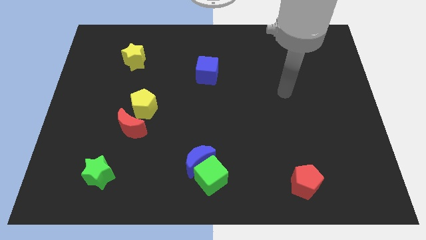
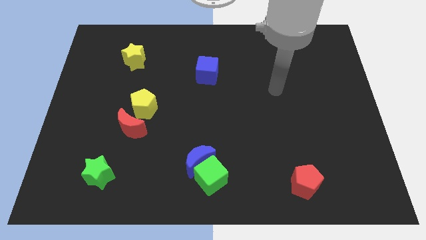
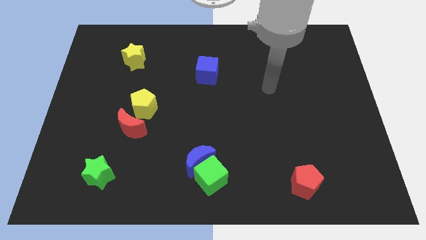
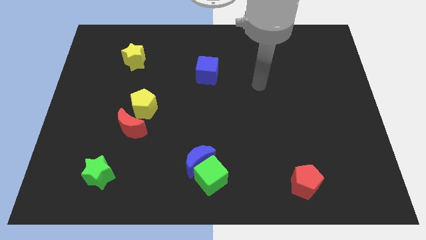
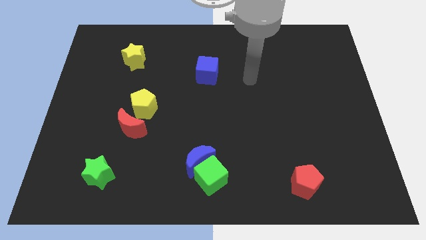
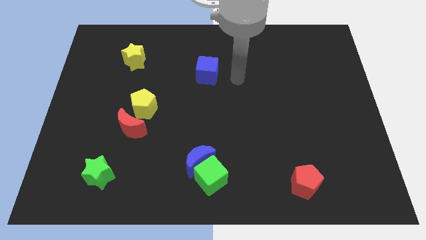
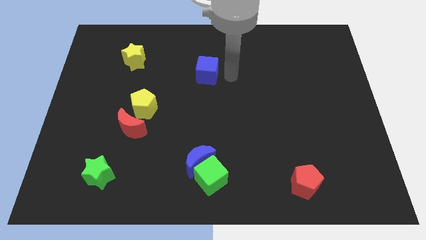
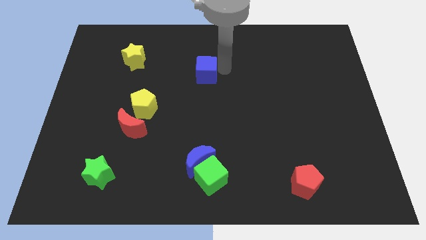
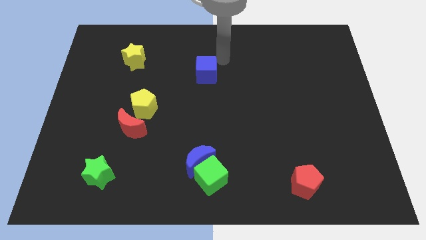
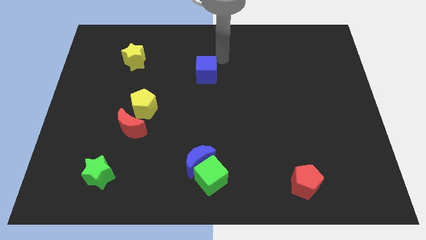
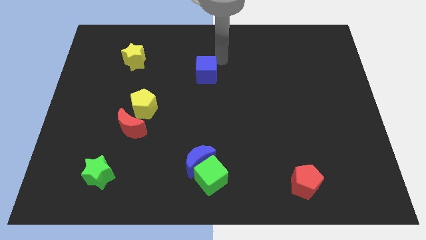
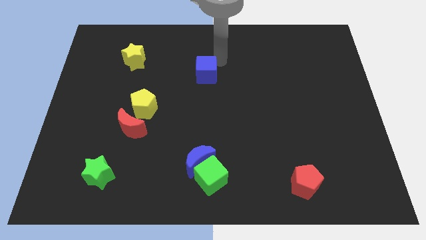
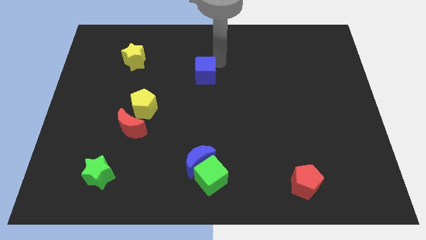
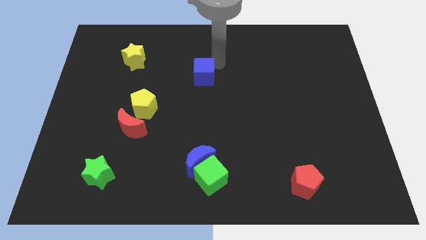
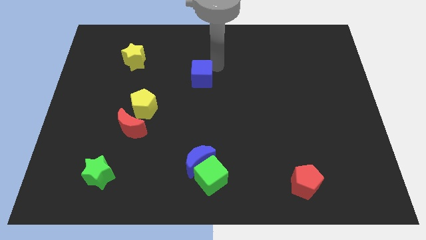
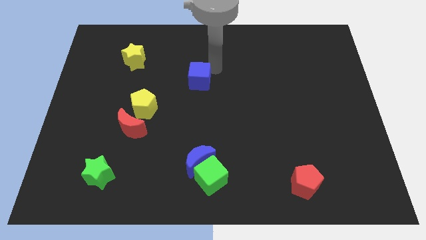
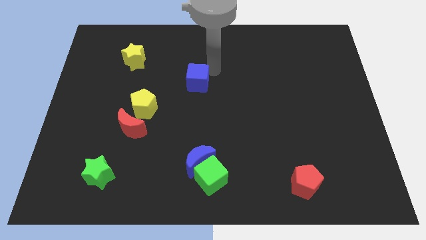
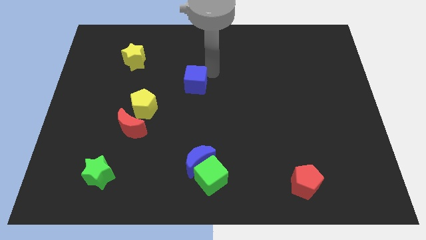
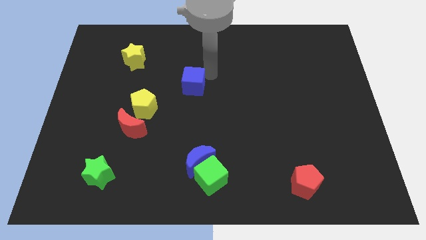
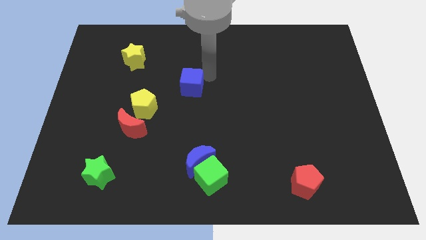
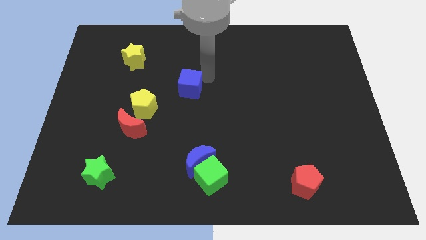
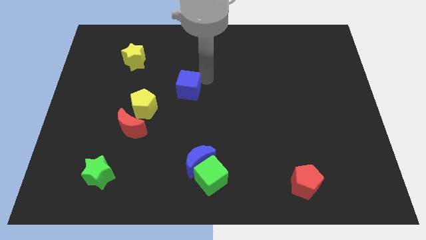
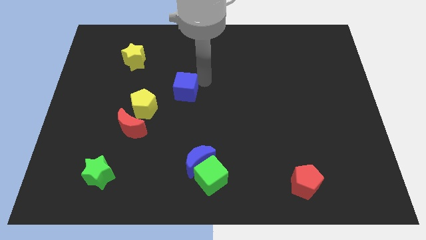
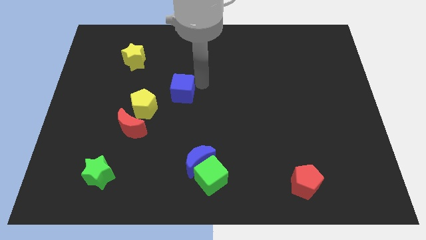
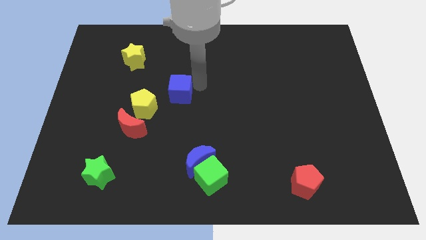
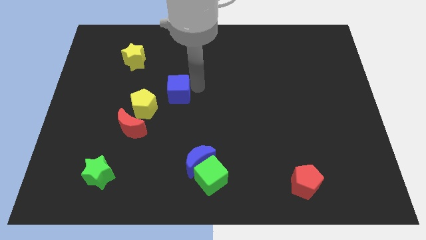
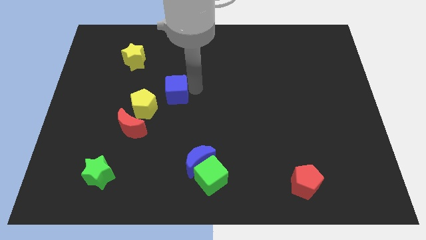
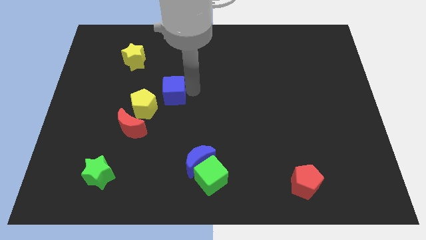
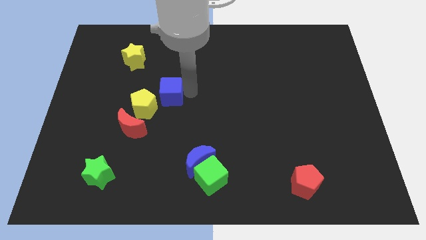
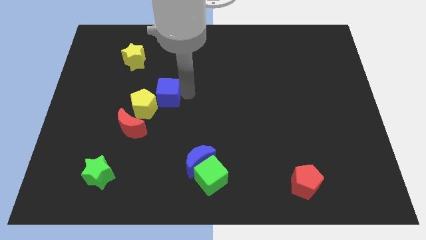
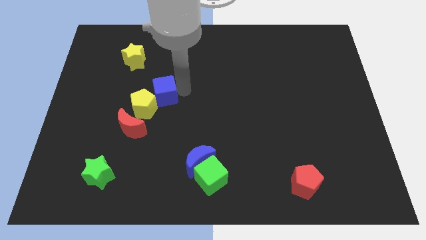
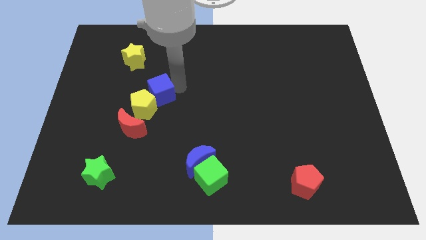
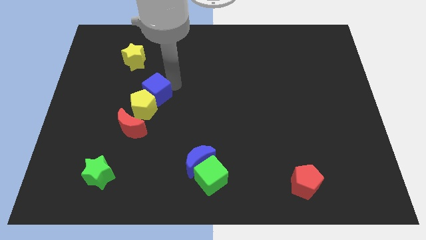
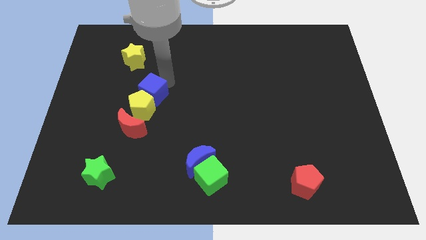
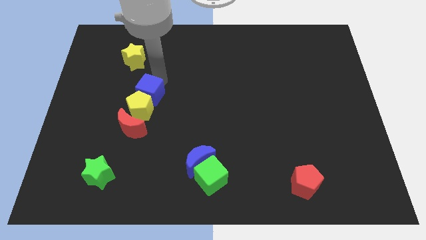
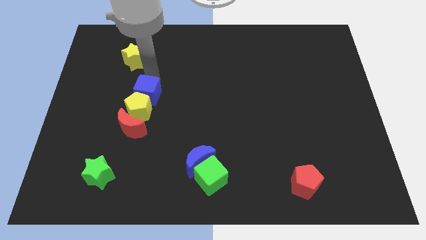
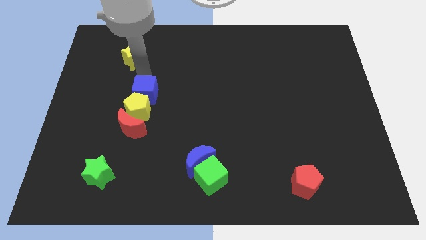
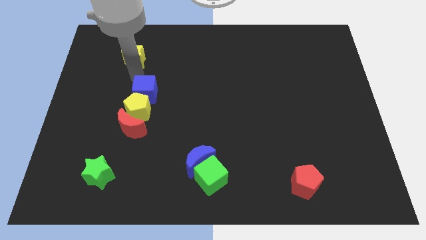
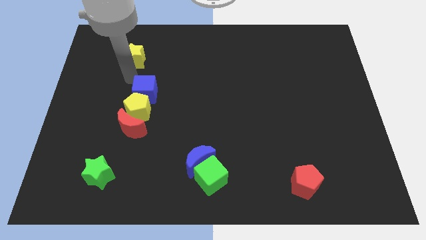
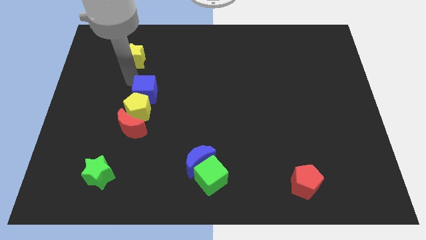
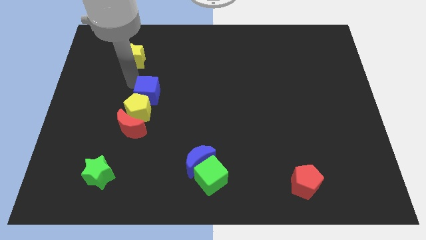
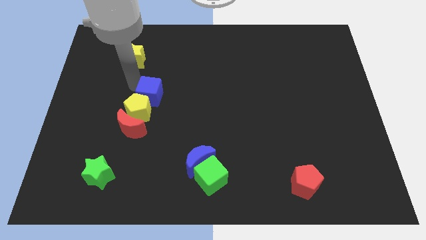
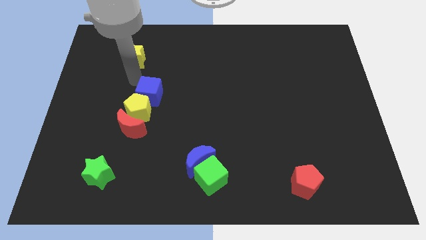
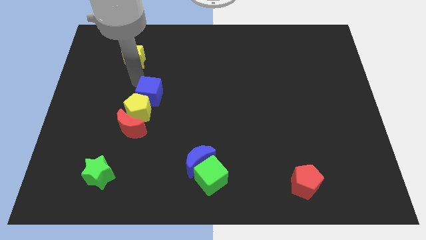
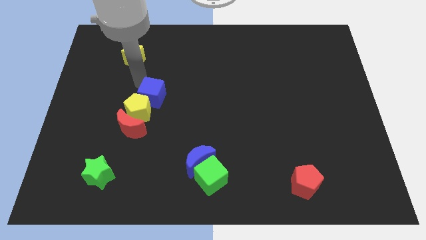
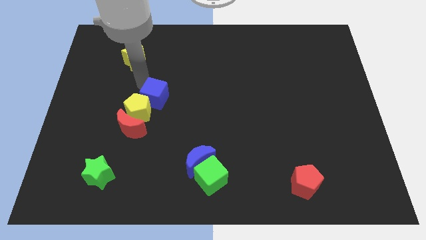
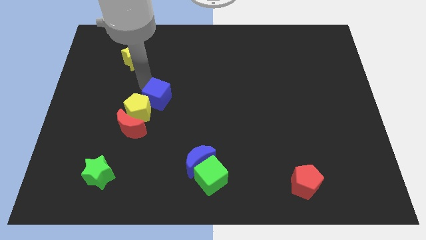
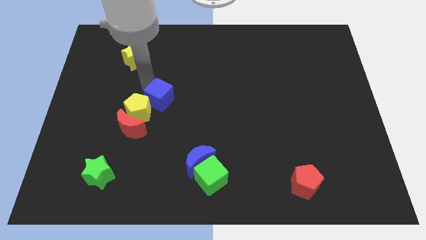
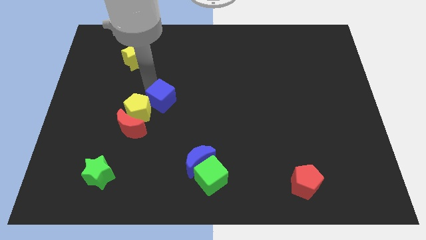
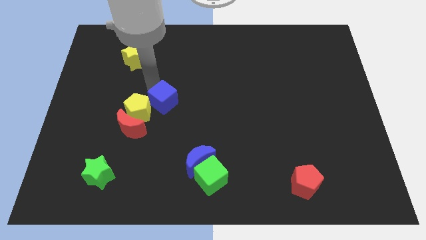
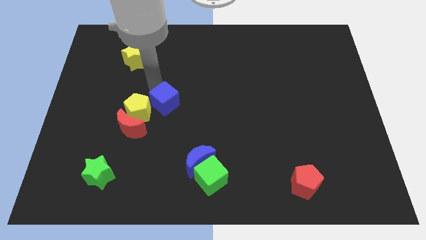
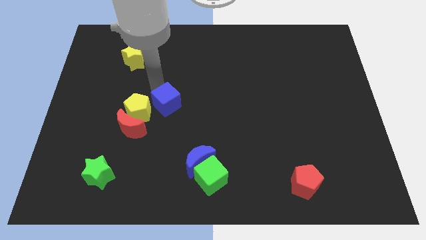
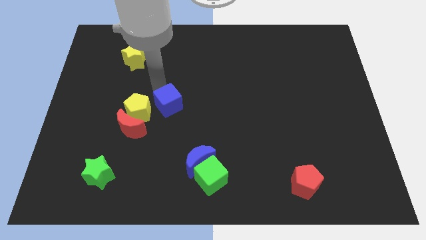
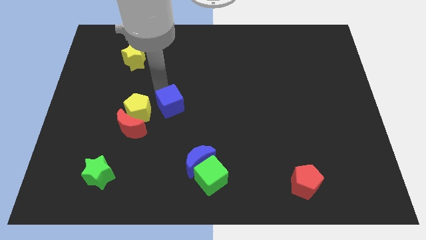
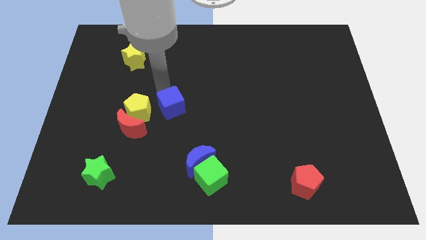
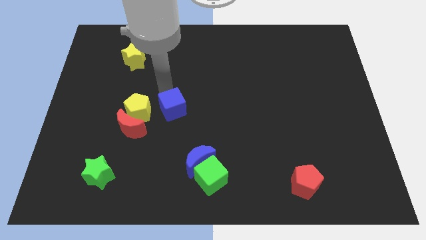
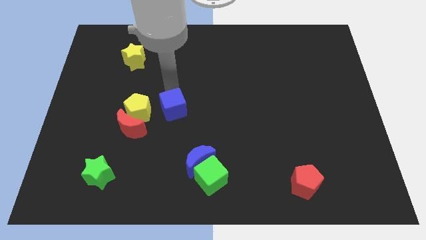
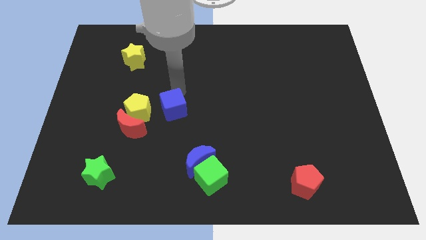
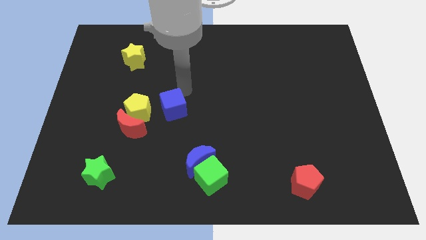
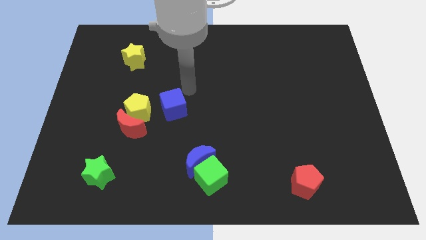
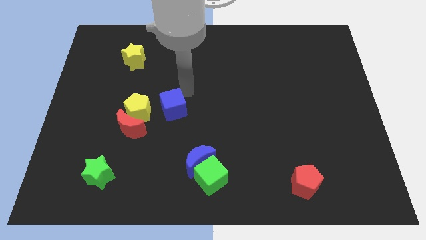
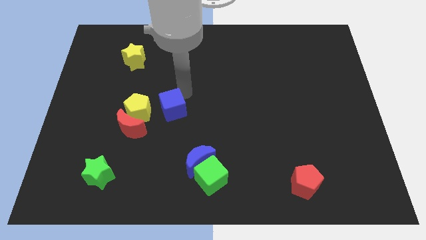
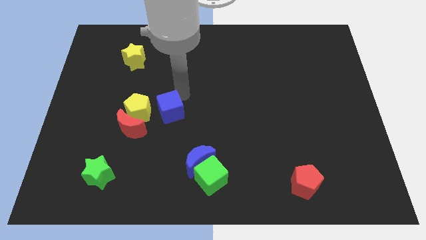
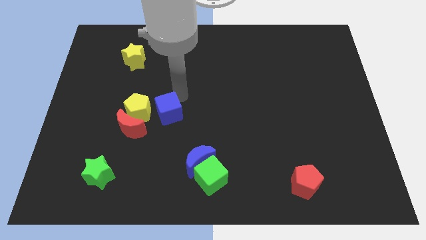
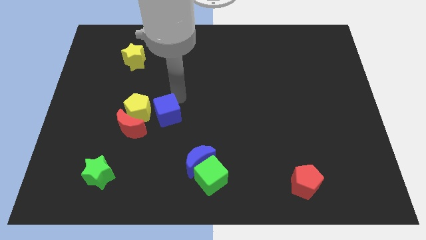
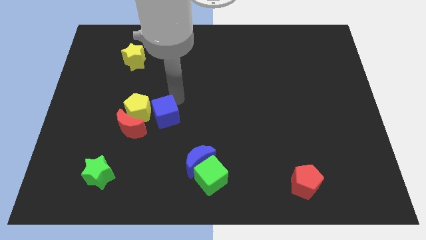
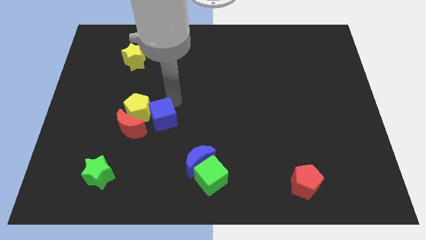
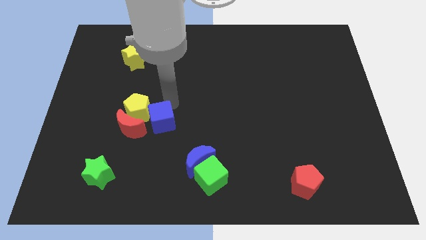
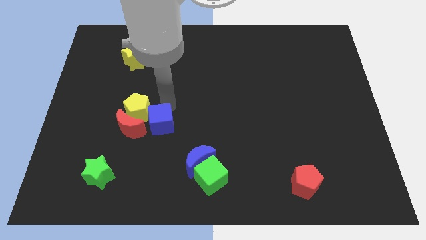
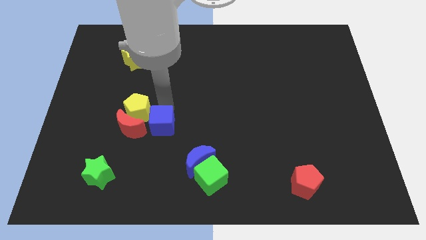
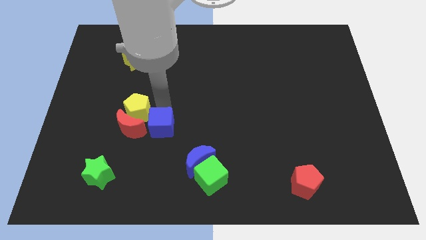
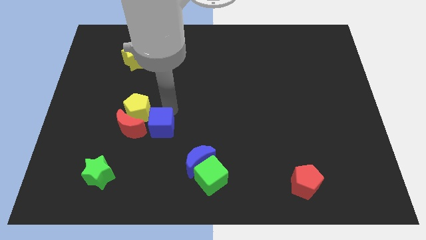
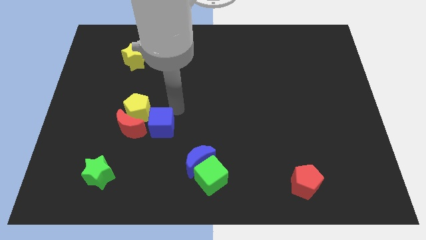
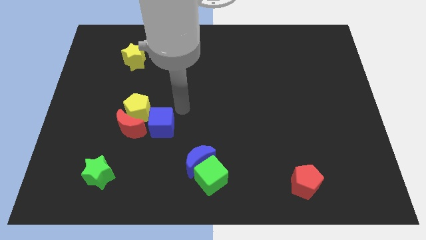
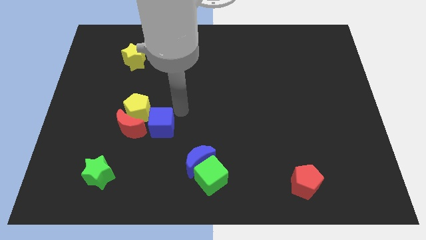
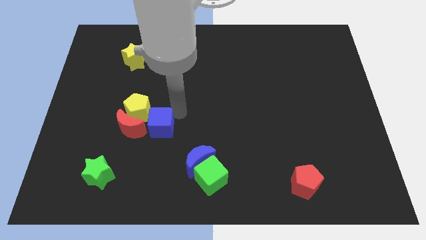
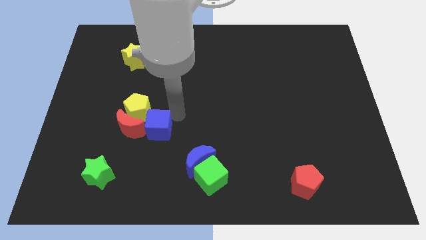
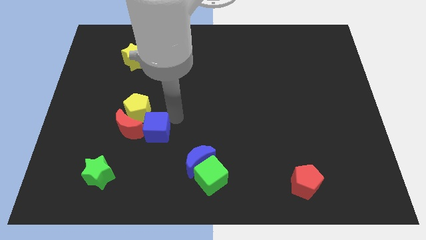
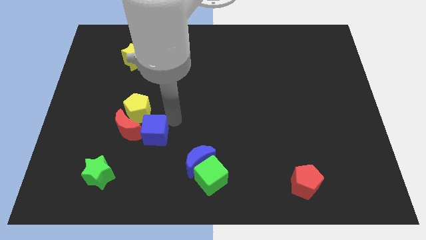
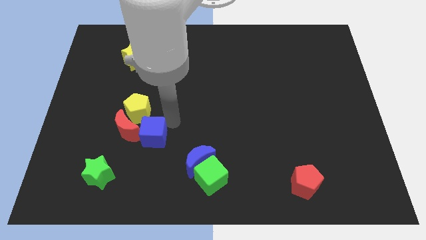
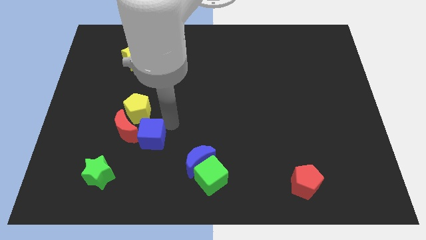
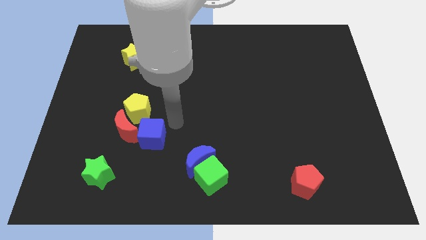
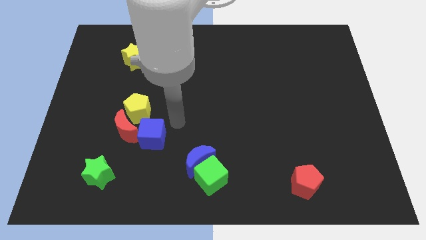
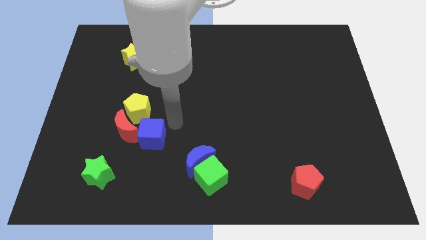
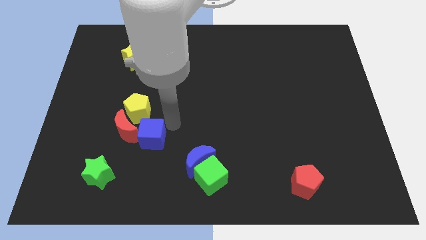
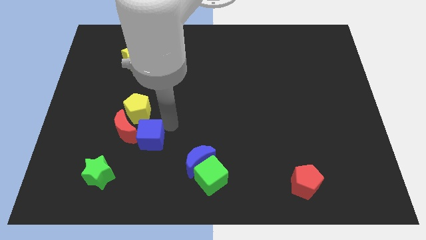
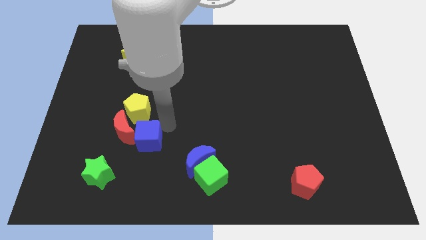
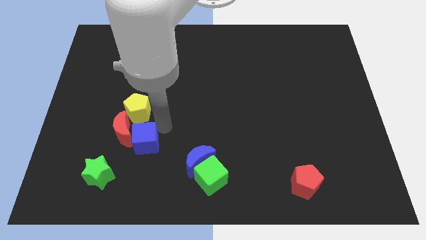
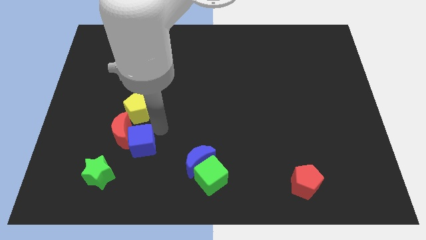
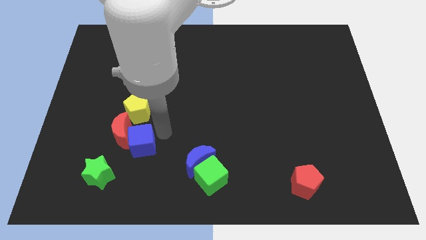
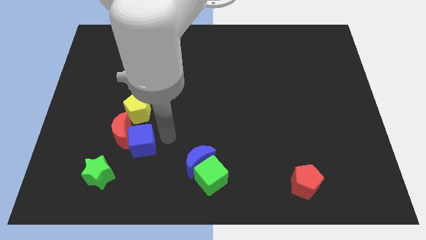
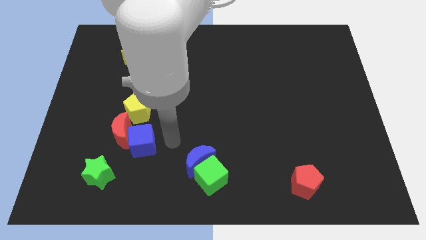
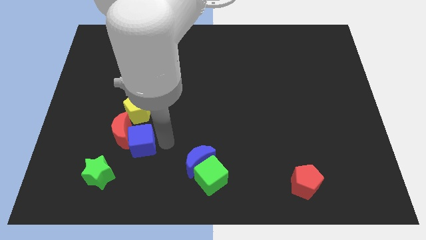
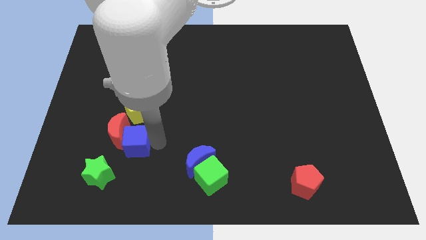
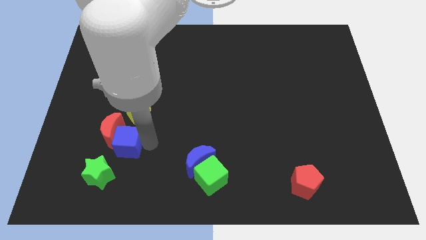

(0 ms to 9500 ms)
move the blue cube above the green star
